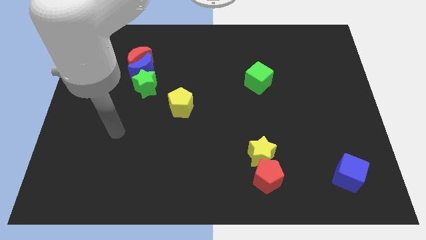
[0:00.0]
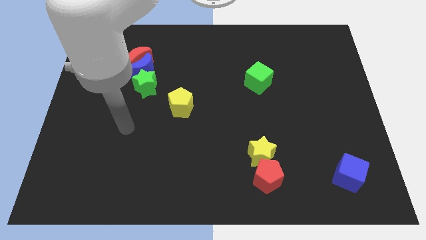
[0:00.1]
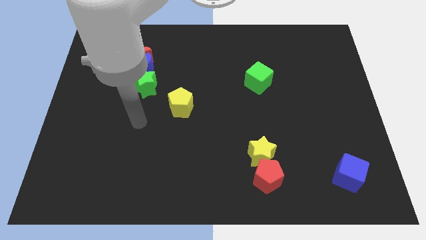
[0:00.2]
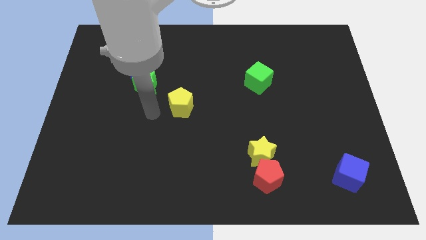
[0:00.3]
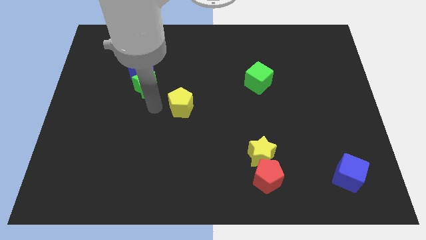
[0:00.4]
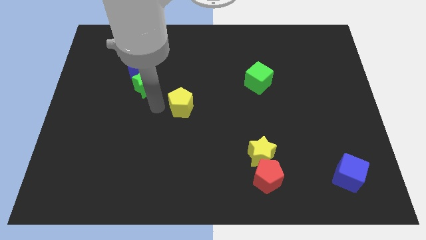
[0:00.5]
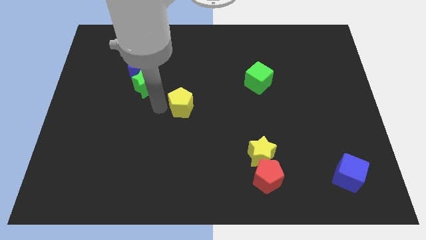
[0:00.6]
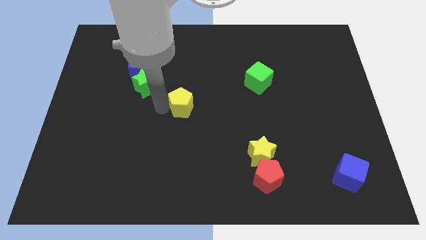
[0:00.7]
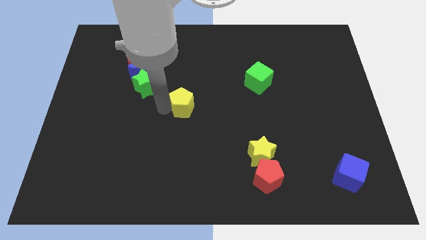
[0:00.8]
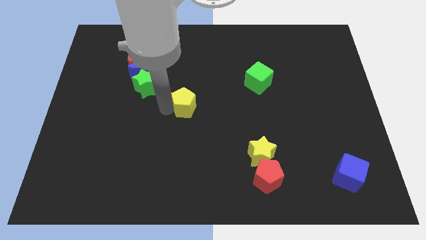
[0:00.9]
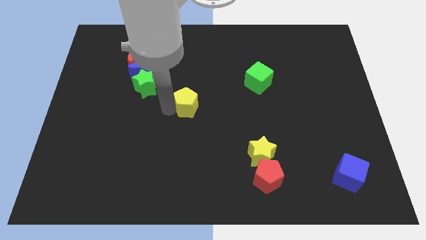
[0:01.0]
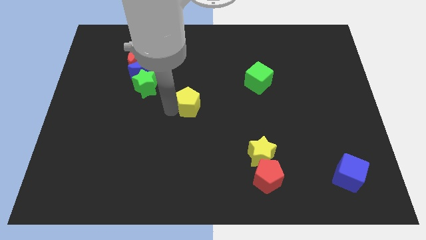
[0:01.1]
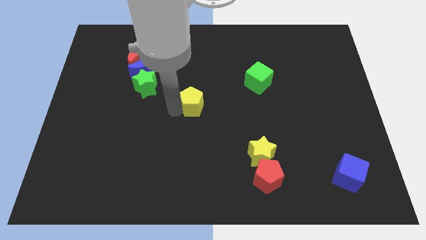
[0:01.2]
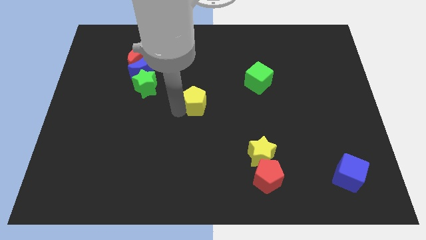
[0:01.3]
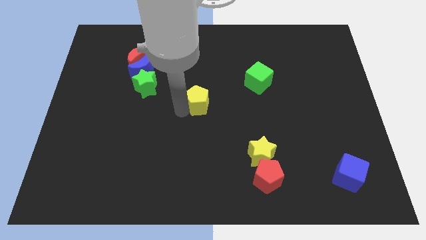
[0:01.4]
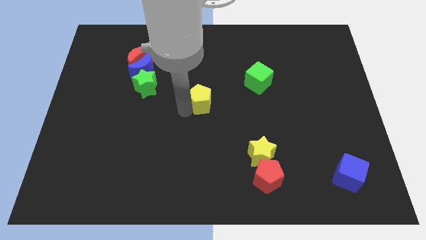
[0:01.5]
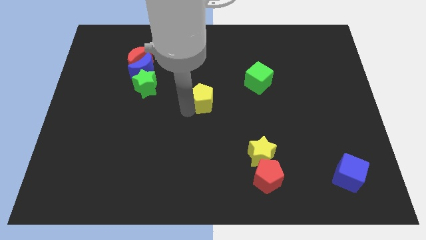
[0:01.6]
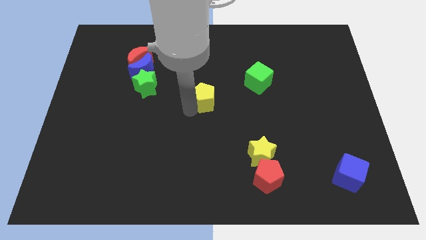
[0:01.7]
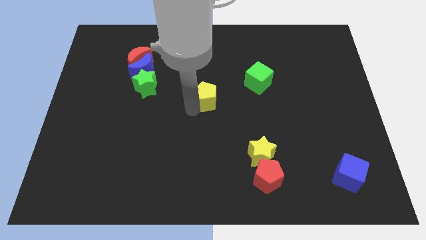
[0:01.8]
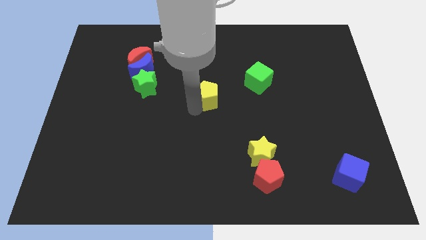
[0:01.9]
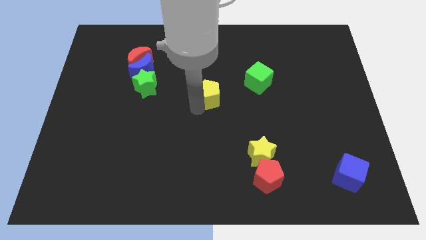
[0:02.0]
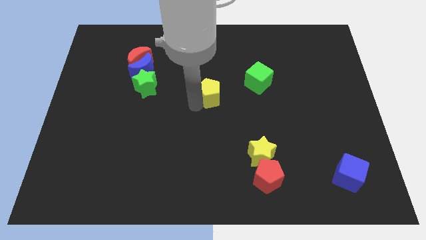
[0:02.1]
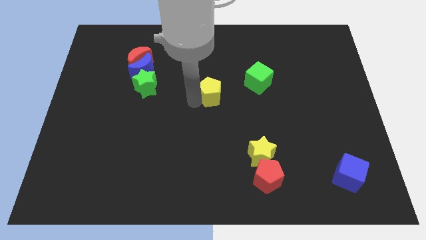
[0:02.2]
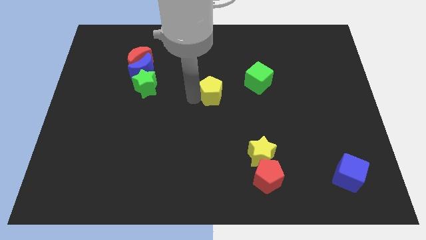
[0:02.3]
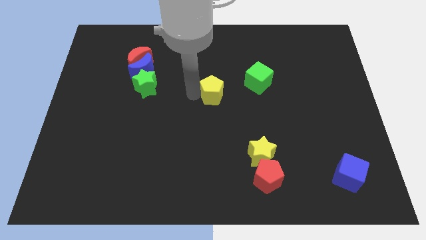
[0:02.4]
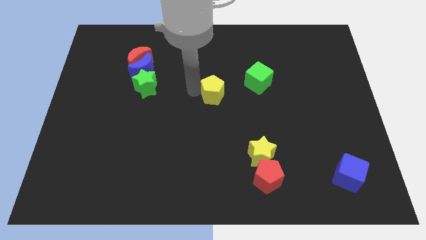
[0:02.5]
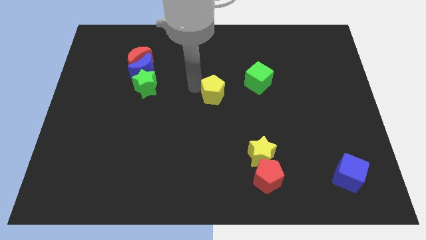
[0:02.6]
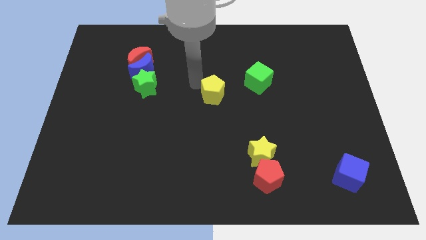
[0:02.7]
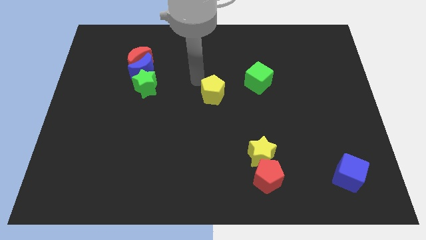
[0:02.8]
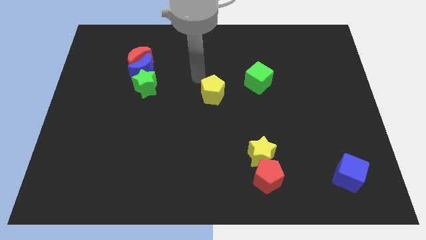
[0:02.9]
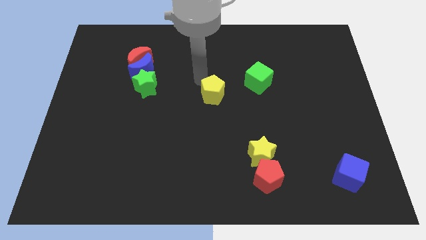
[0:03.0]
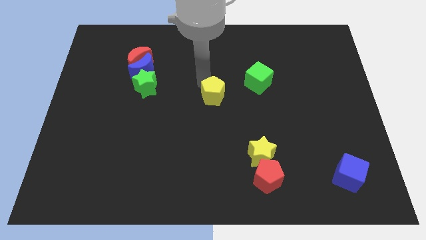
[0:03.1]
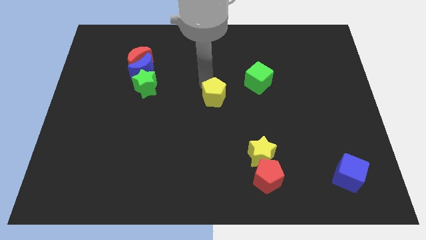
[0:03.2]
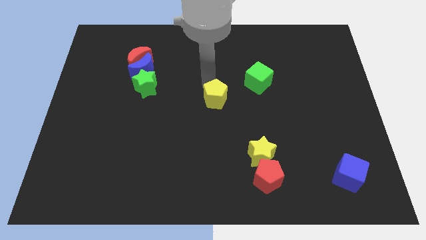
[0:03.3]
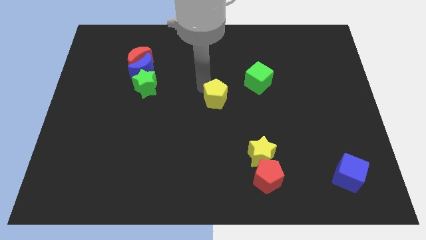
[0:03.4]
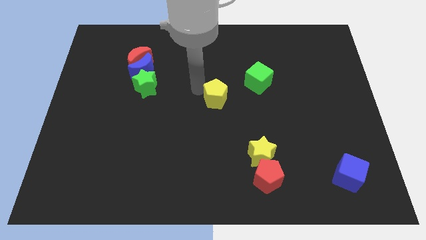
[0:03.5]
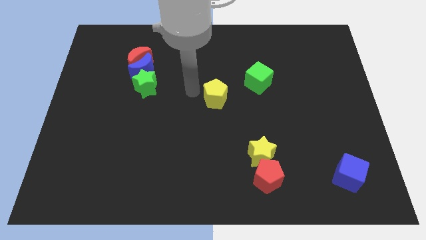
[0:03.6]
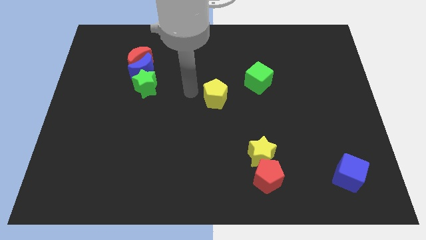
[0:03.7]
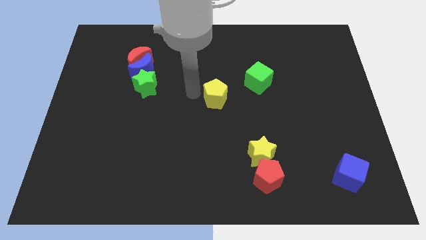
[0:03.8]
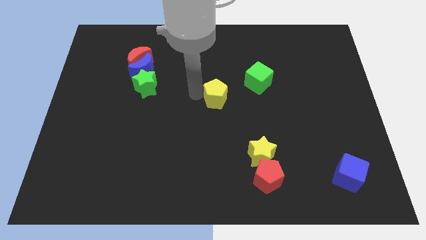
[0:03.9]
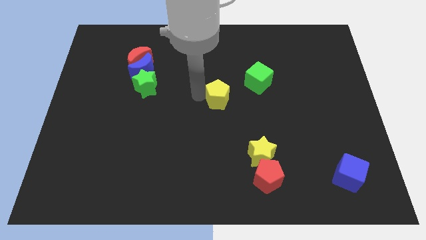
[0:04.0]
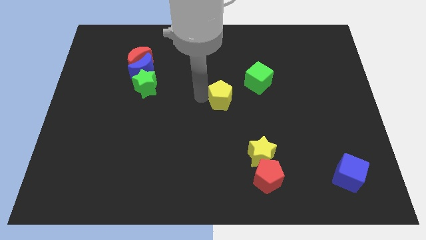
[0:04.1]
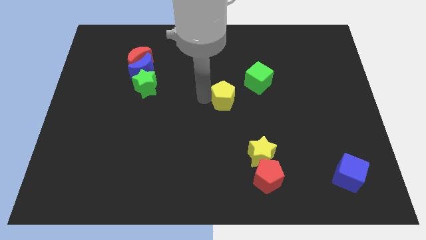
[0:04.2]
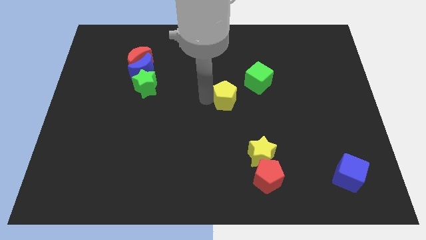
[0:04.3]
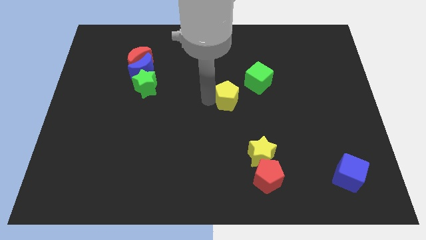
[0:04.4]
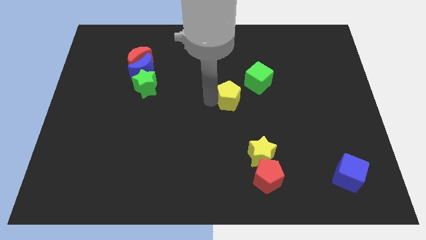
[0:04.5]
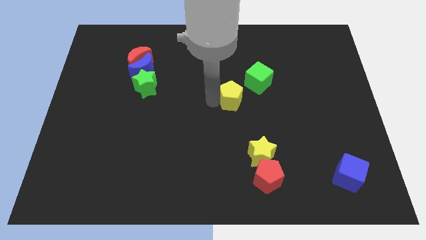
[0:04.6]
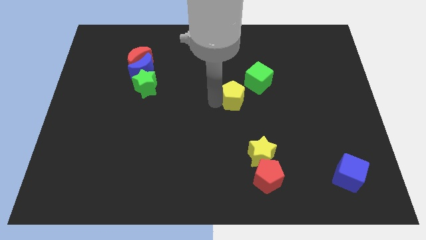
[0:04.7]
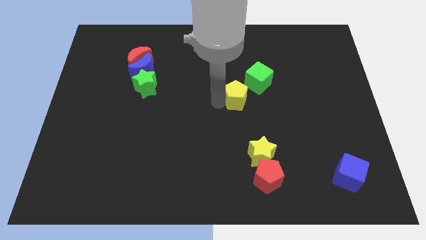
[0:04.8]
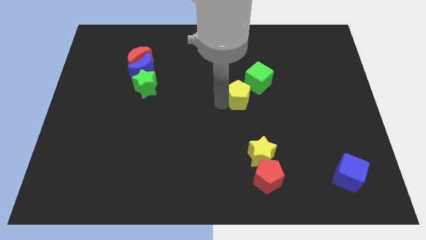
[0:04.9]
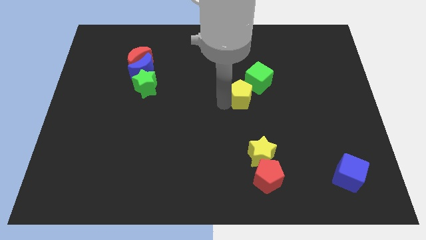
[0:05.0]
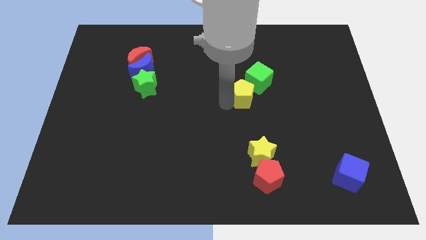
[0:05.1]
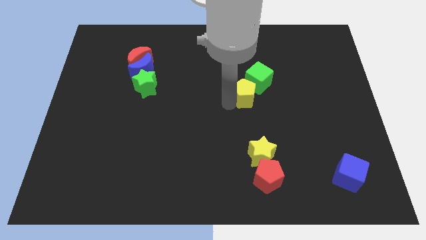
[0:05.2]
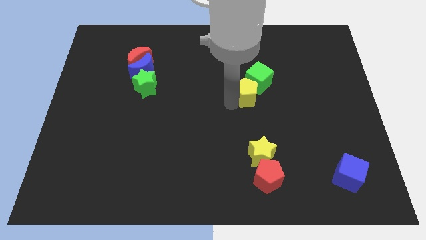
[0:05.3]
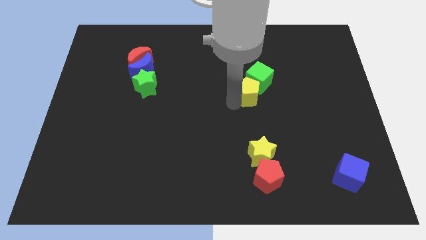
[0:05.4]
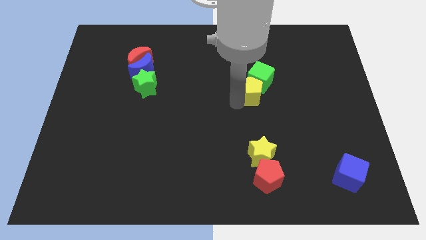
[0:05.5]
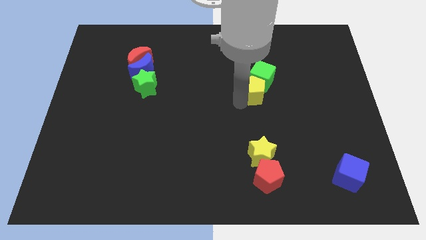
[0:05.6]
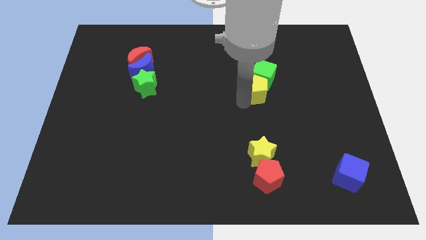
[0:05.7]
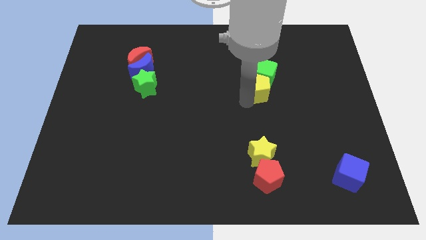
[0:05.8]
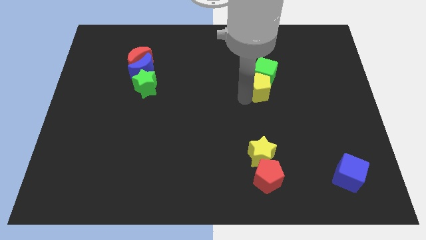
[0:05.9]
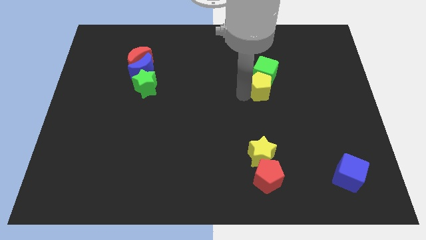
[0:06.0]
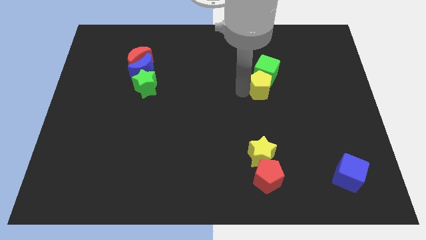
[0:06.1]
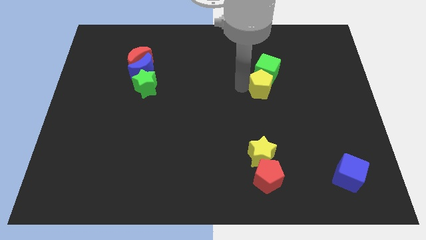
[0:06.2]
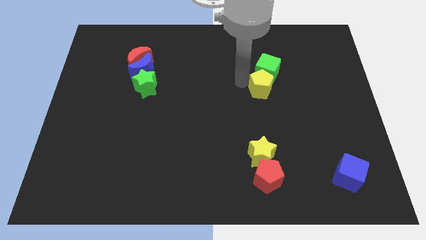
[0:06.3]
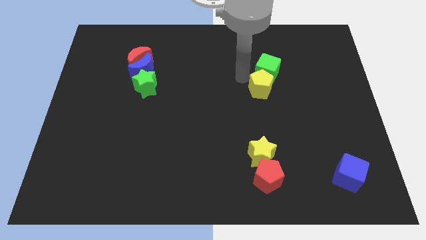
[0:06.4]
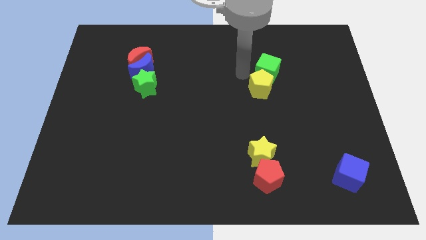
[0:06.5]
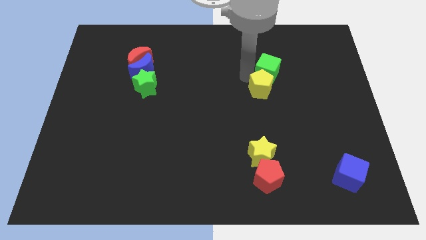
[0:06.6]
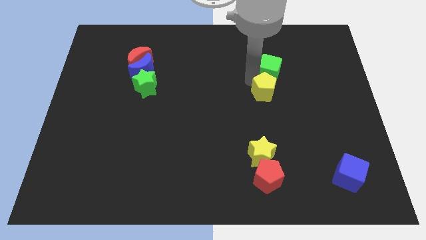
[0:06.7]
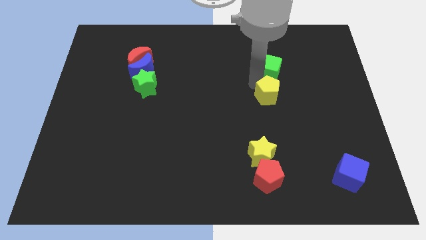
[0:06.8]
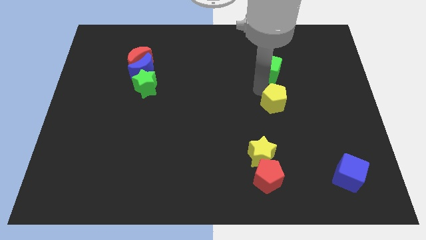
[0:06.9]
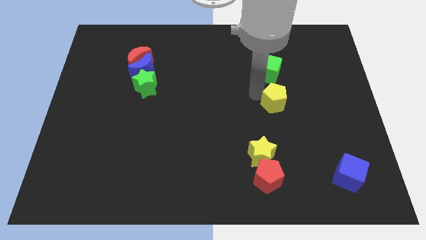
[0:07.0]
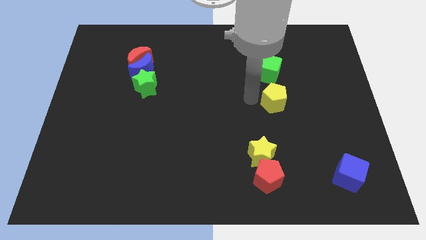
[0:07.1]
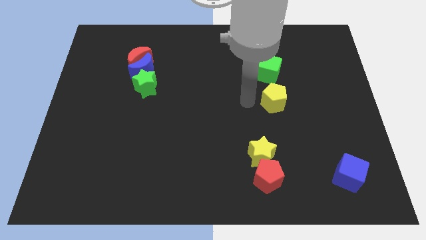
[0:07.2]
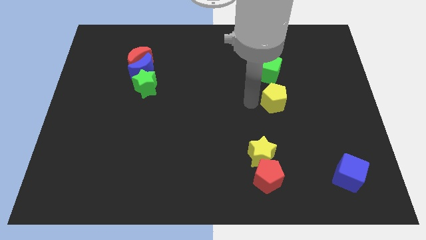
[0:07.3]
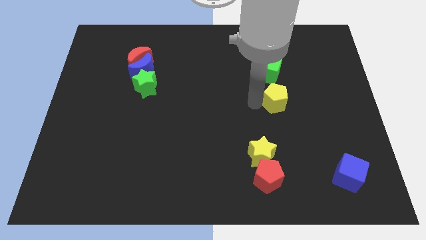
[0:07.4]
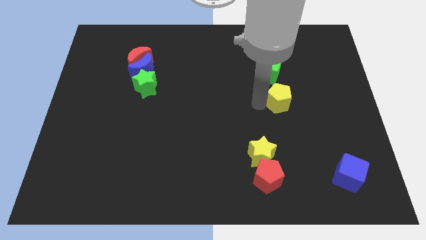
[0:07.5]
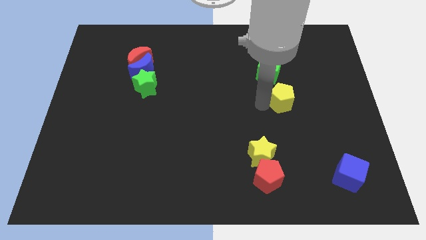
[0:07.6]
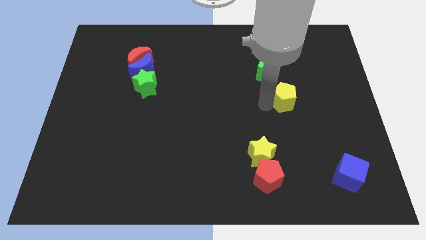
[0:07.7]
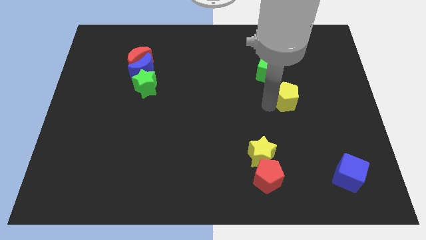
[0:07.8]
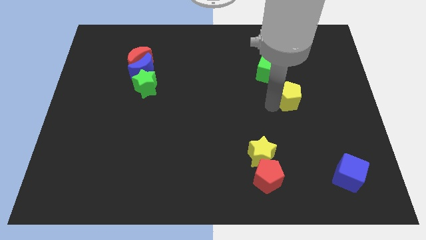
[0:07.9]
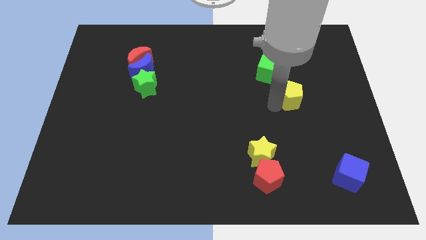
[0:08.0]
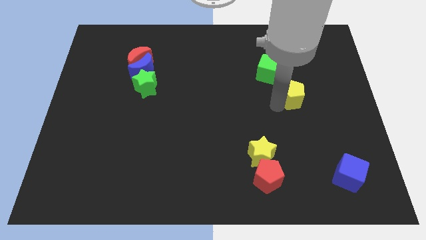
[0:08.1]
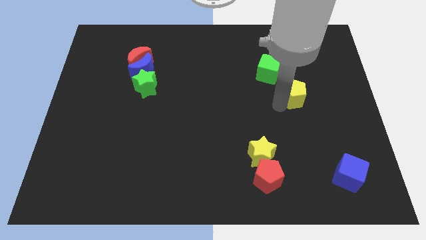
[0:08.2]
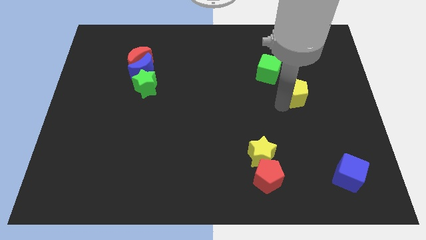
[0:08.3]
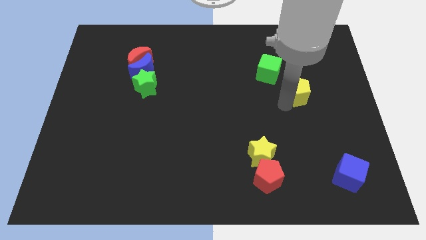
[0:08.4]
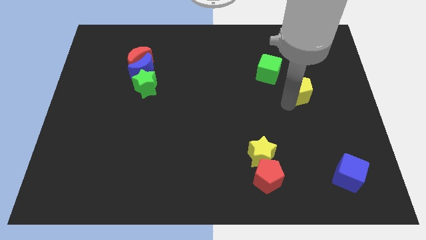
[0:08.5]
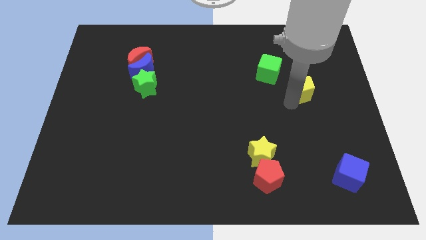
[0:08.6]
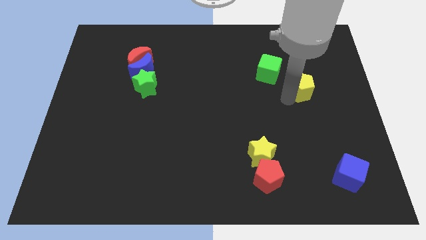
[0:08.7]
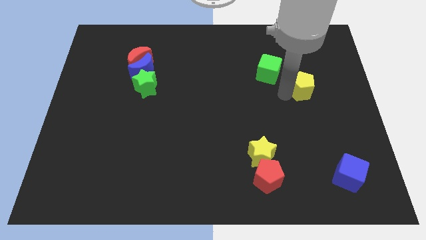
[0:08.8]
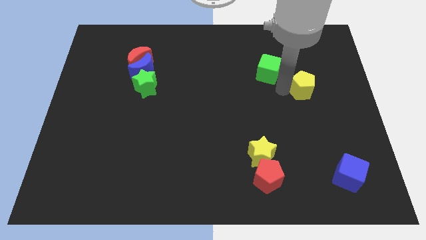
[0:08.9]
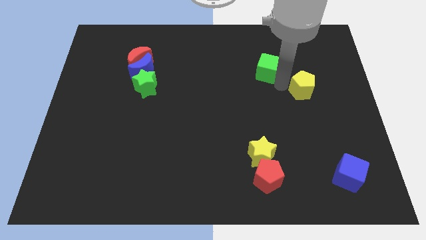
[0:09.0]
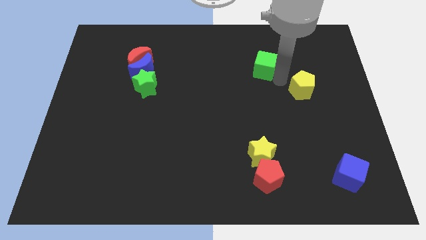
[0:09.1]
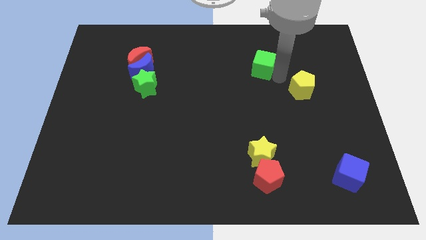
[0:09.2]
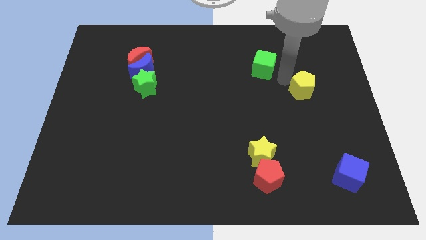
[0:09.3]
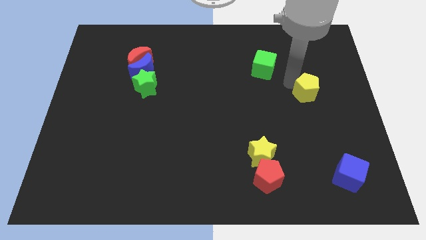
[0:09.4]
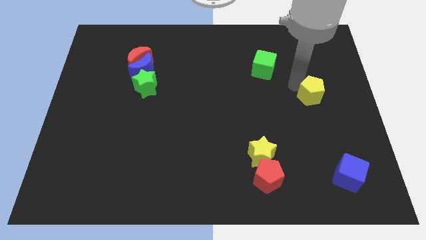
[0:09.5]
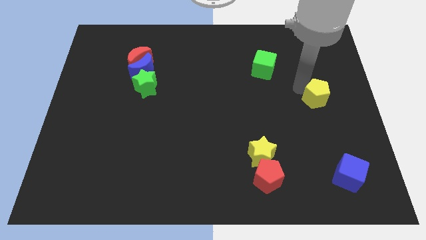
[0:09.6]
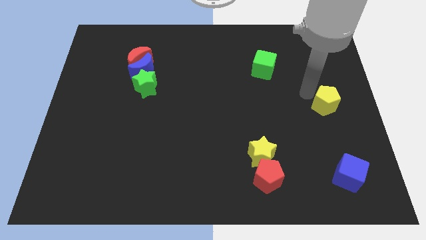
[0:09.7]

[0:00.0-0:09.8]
push the yellow pentagon to the center right
